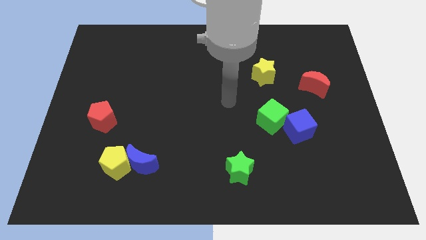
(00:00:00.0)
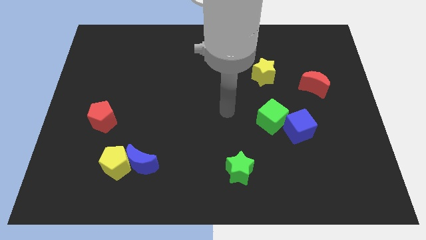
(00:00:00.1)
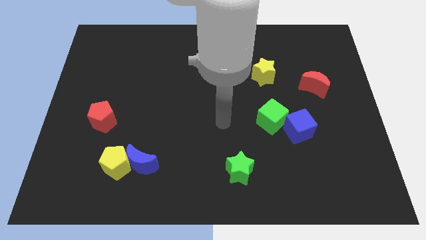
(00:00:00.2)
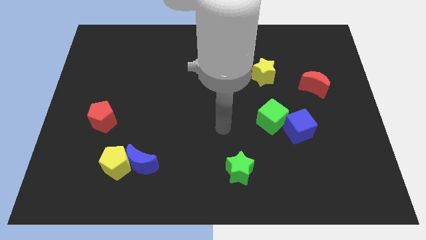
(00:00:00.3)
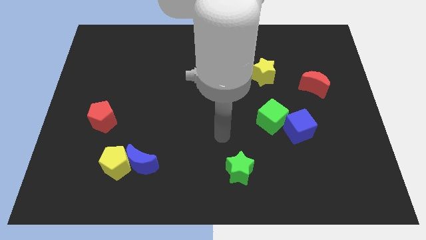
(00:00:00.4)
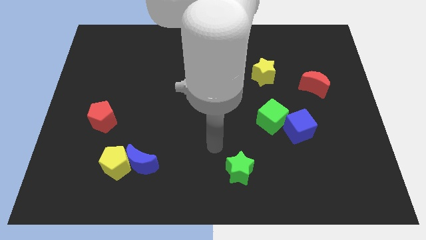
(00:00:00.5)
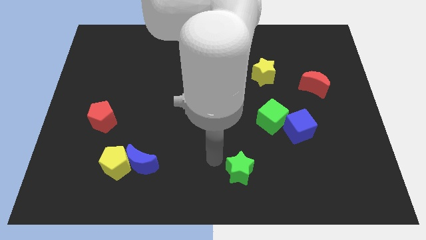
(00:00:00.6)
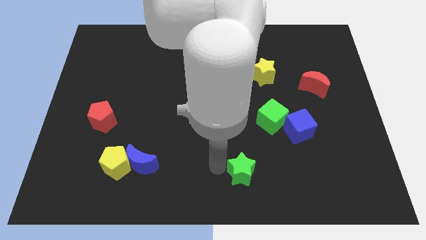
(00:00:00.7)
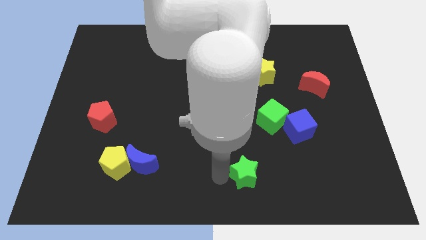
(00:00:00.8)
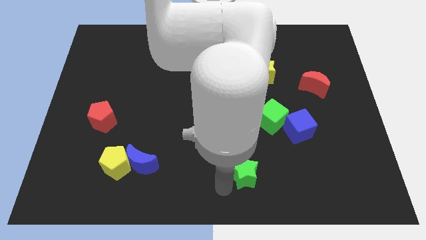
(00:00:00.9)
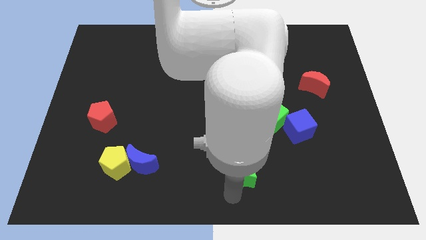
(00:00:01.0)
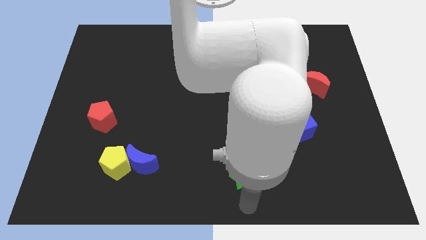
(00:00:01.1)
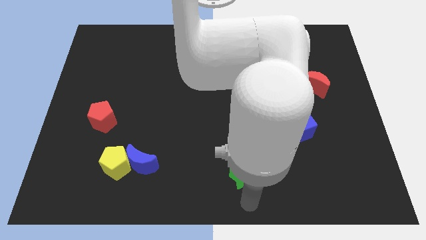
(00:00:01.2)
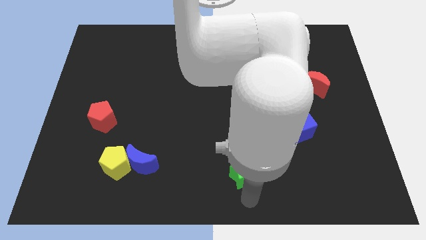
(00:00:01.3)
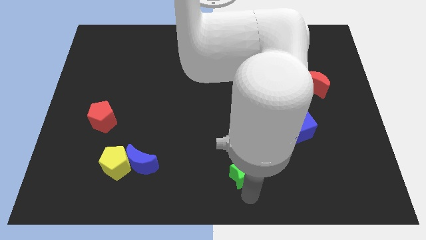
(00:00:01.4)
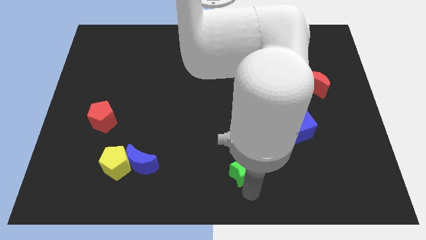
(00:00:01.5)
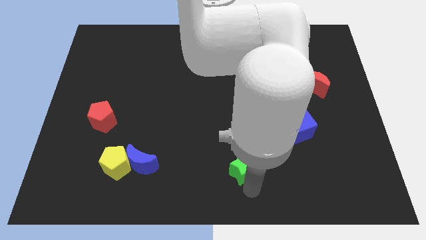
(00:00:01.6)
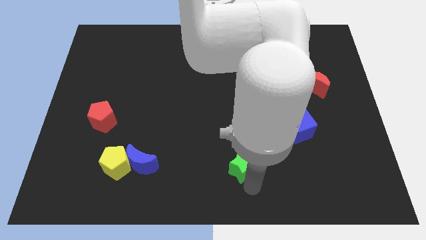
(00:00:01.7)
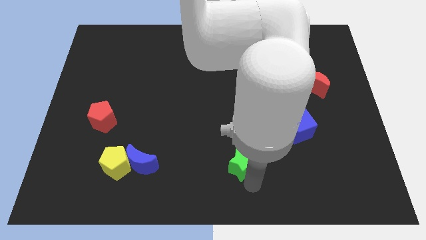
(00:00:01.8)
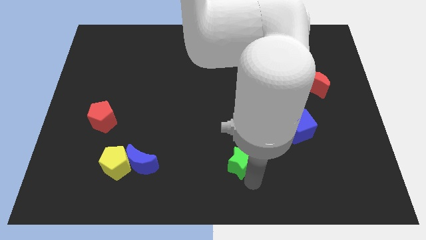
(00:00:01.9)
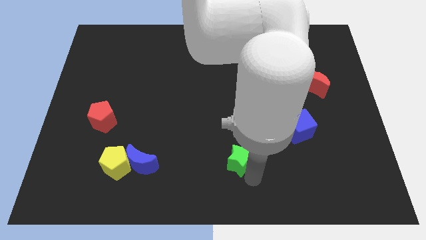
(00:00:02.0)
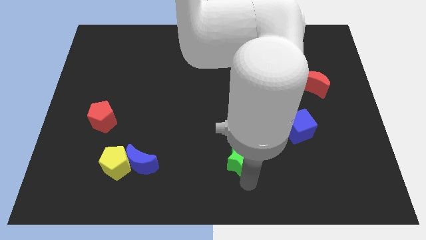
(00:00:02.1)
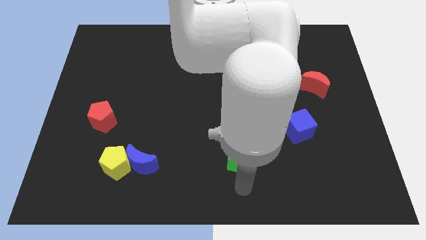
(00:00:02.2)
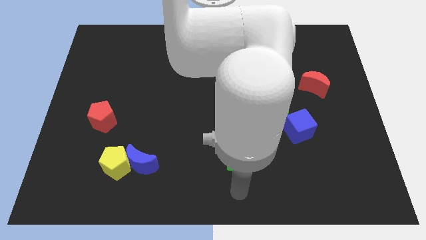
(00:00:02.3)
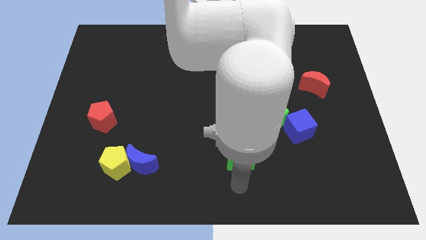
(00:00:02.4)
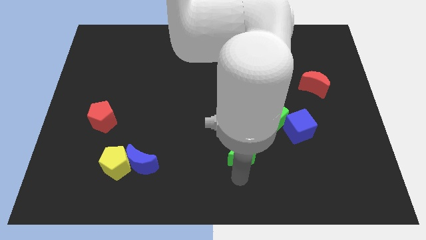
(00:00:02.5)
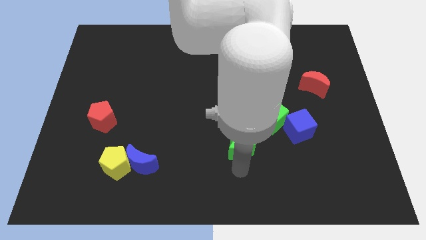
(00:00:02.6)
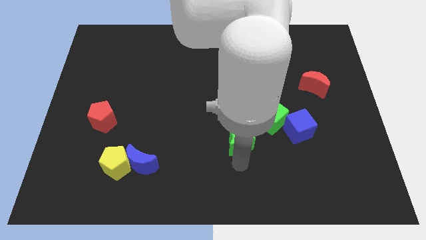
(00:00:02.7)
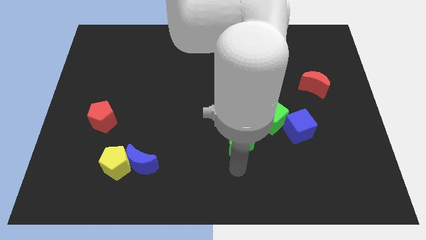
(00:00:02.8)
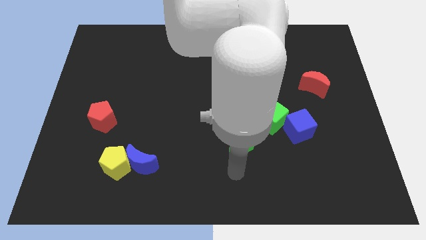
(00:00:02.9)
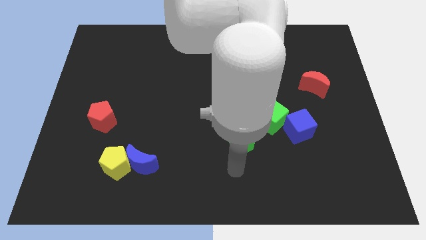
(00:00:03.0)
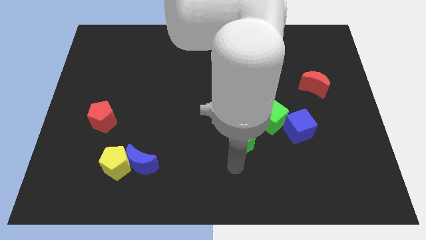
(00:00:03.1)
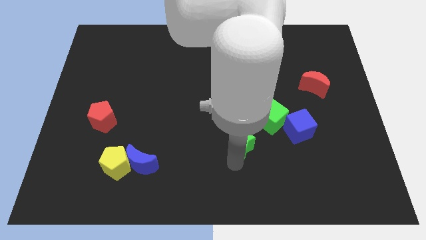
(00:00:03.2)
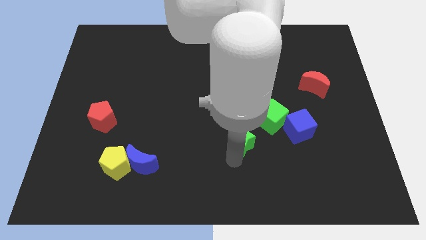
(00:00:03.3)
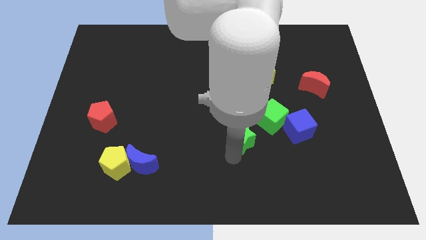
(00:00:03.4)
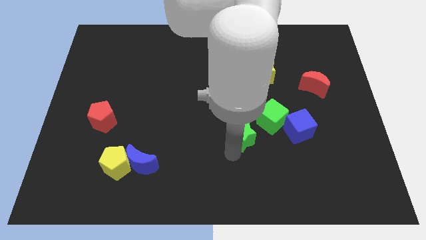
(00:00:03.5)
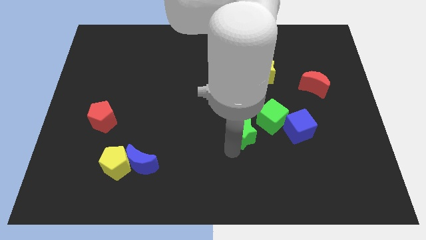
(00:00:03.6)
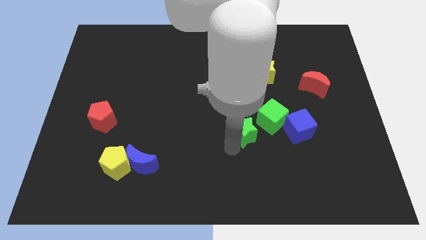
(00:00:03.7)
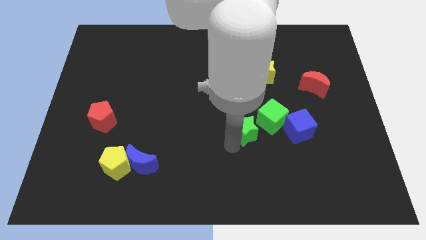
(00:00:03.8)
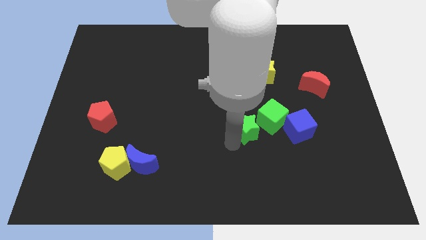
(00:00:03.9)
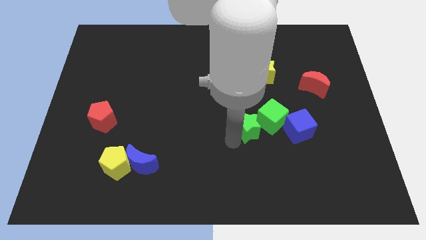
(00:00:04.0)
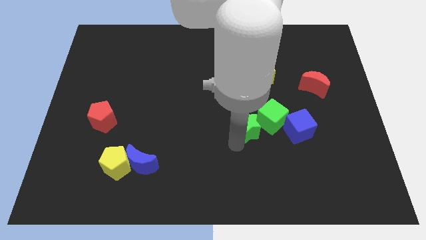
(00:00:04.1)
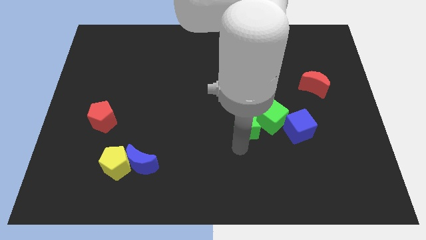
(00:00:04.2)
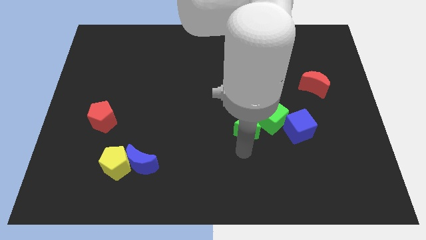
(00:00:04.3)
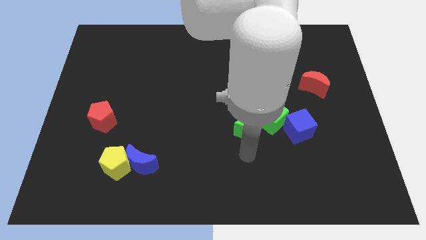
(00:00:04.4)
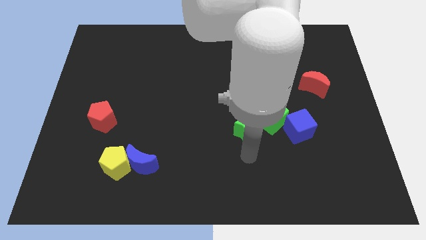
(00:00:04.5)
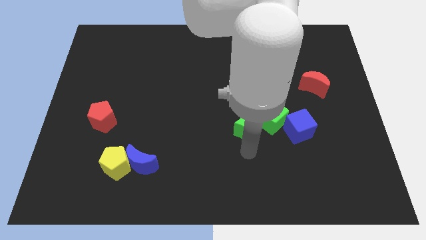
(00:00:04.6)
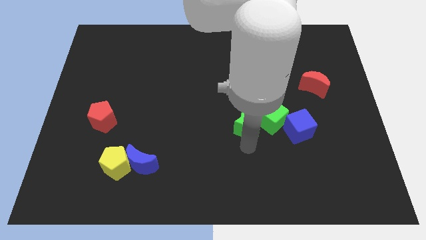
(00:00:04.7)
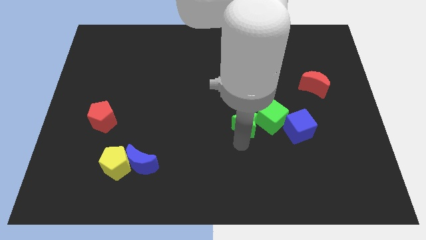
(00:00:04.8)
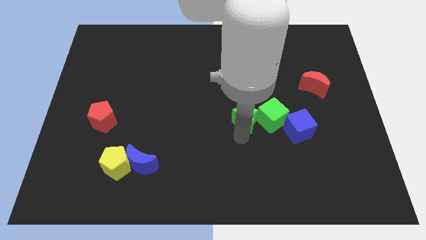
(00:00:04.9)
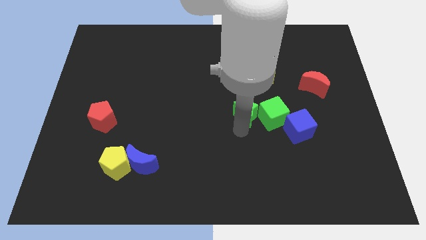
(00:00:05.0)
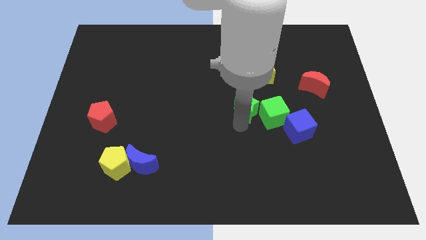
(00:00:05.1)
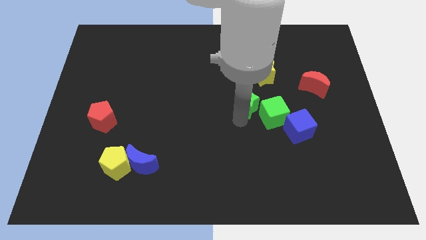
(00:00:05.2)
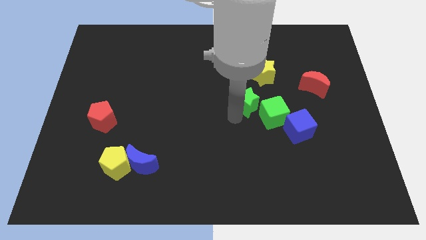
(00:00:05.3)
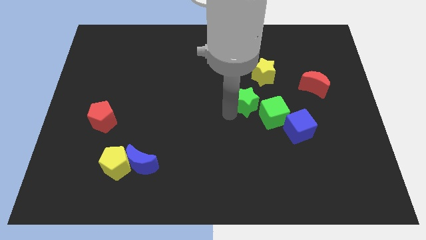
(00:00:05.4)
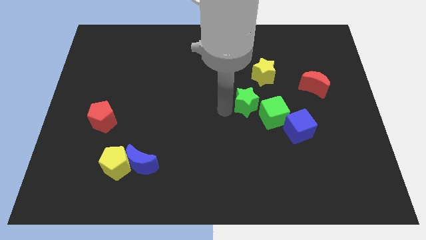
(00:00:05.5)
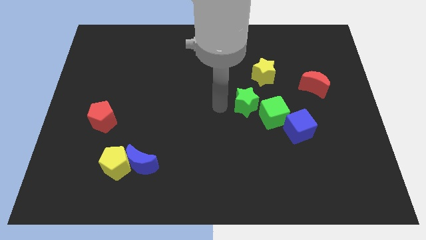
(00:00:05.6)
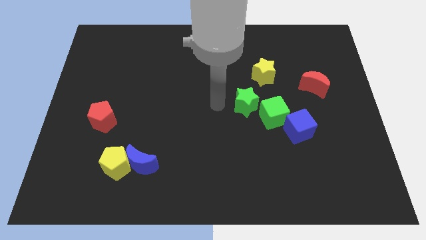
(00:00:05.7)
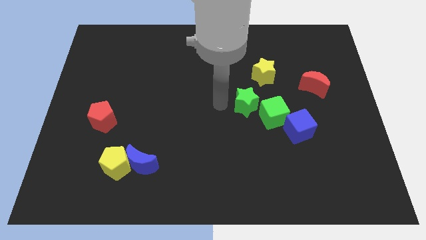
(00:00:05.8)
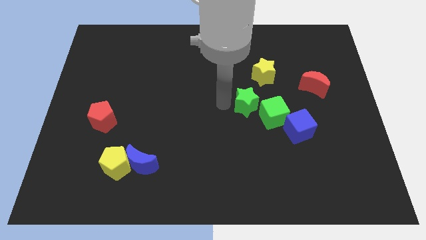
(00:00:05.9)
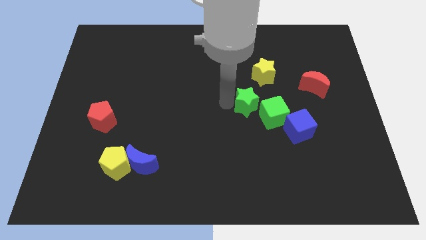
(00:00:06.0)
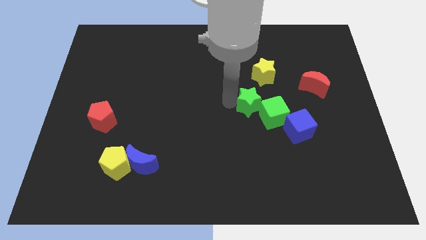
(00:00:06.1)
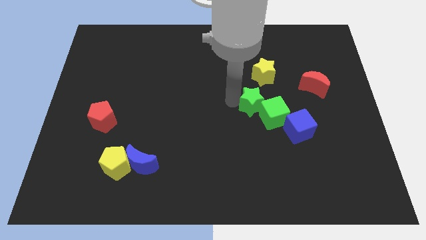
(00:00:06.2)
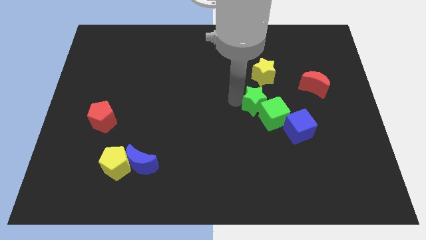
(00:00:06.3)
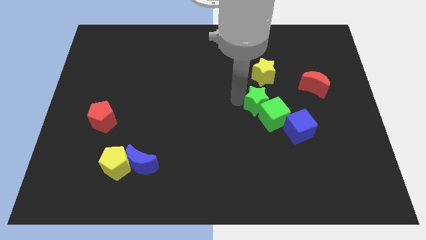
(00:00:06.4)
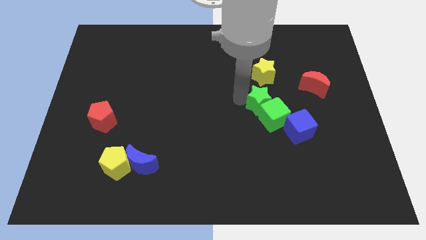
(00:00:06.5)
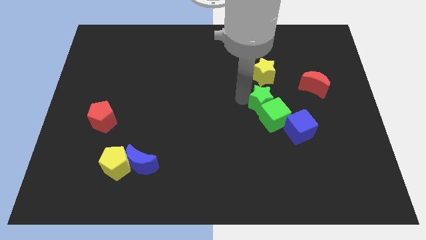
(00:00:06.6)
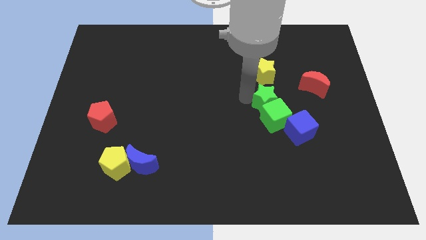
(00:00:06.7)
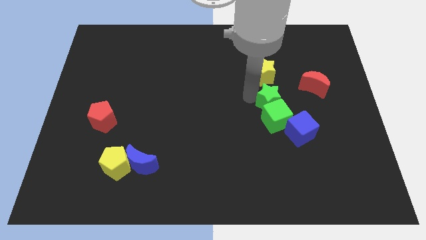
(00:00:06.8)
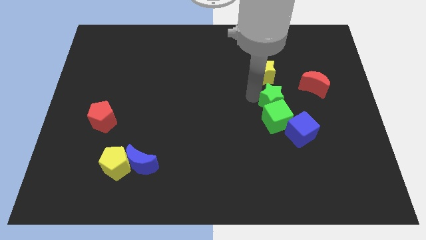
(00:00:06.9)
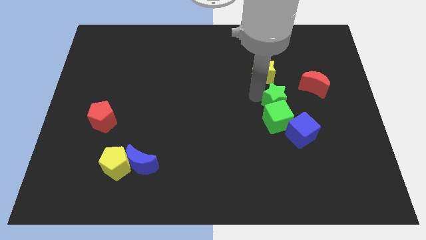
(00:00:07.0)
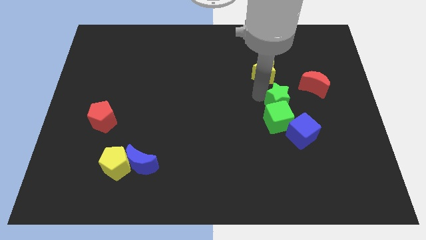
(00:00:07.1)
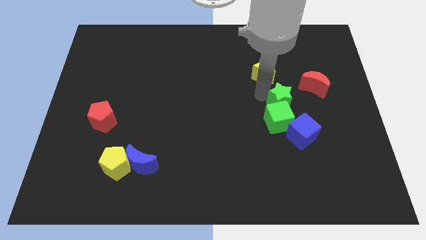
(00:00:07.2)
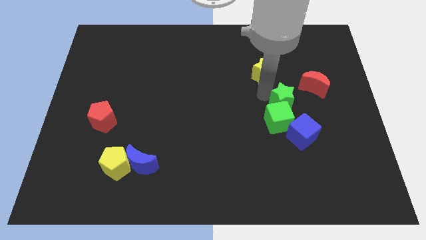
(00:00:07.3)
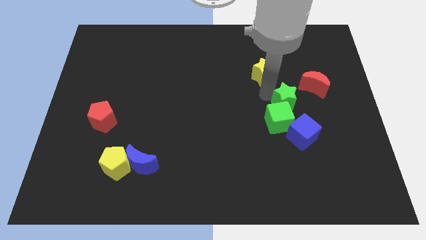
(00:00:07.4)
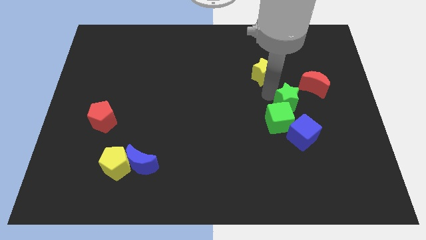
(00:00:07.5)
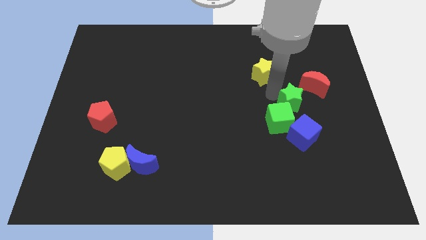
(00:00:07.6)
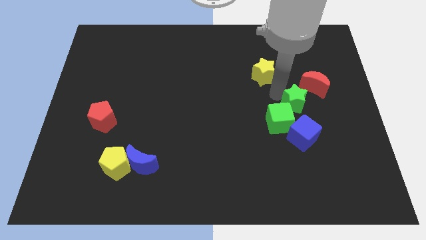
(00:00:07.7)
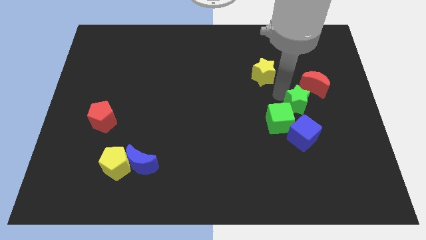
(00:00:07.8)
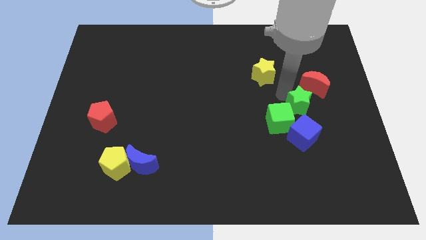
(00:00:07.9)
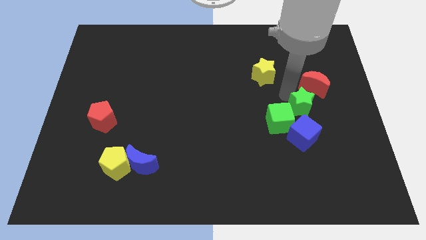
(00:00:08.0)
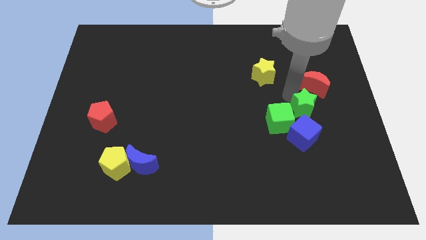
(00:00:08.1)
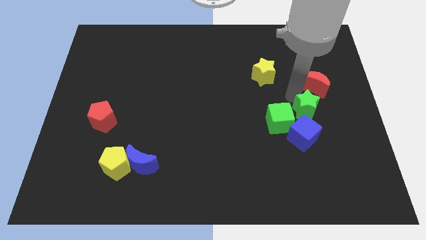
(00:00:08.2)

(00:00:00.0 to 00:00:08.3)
put the green star diagonally up and to the right of the blue cube
